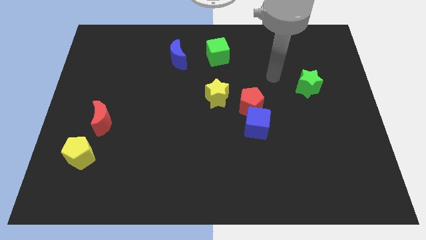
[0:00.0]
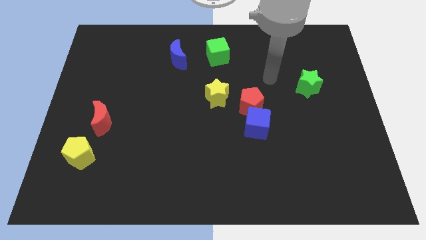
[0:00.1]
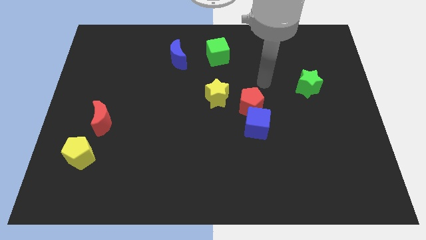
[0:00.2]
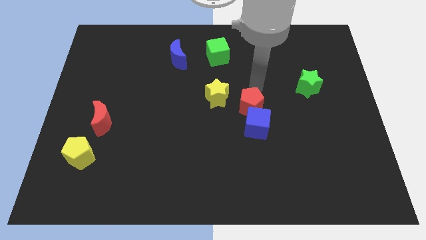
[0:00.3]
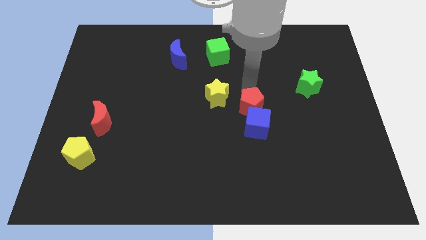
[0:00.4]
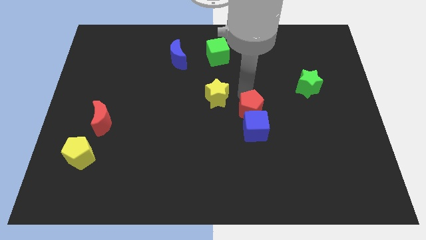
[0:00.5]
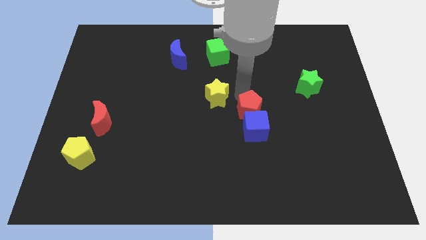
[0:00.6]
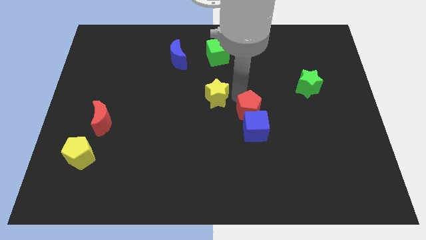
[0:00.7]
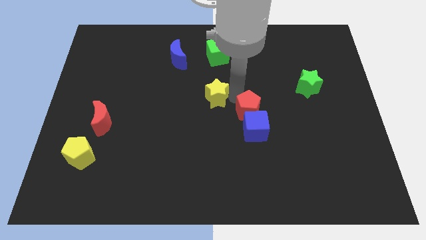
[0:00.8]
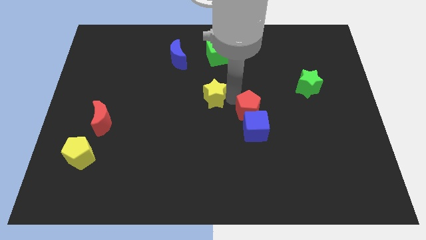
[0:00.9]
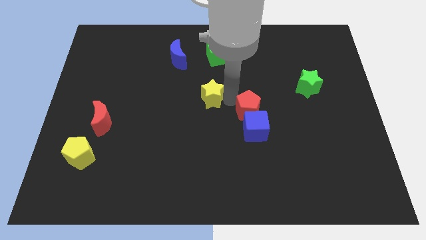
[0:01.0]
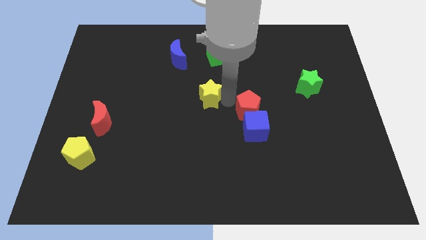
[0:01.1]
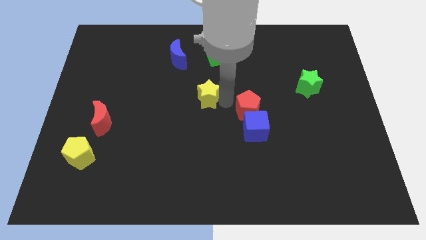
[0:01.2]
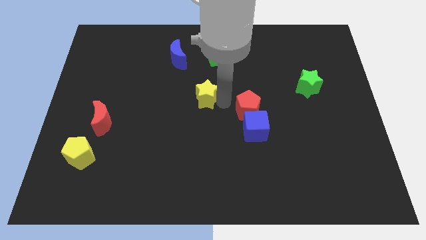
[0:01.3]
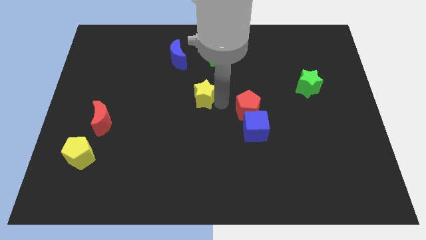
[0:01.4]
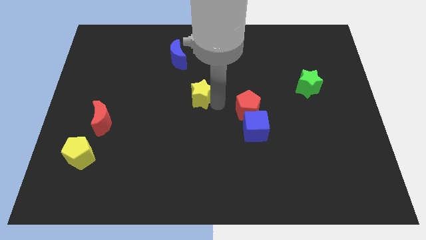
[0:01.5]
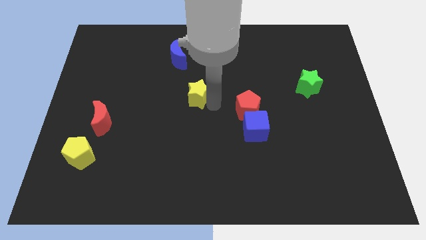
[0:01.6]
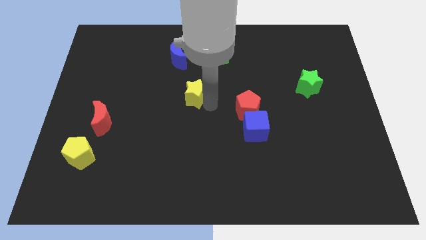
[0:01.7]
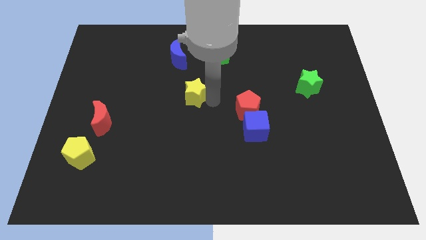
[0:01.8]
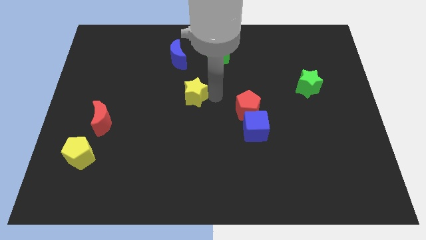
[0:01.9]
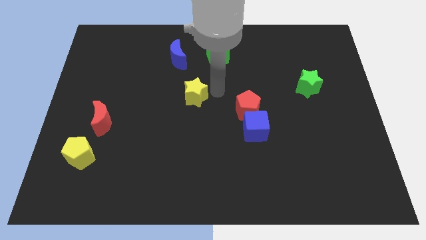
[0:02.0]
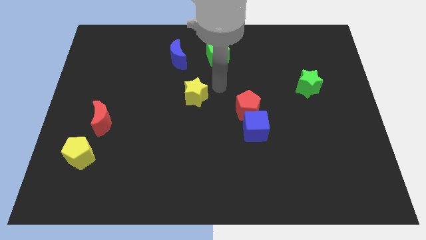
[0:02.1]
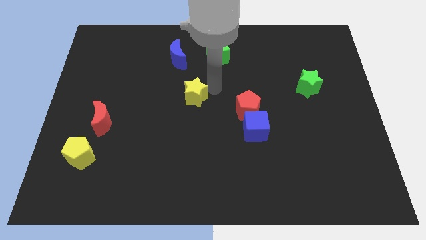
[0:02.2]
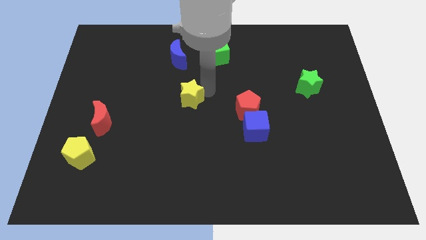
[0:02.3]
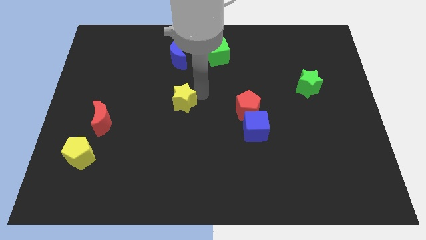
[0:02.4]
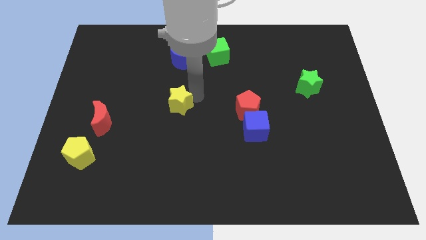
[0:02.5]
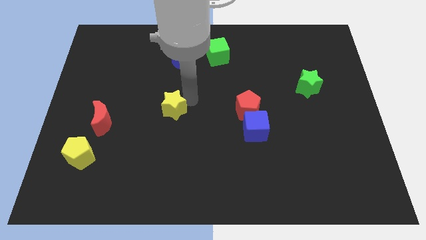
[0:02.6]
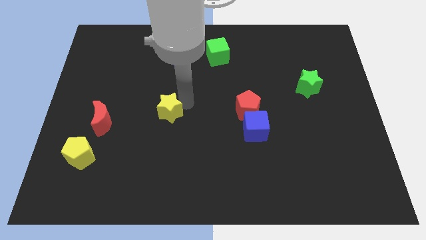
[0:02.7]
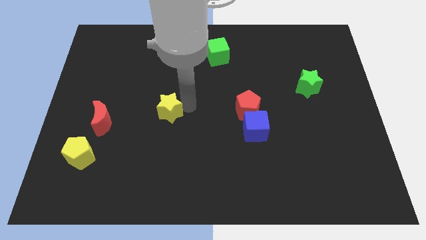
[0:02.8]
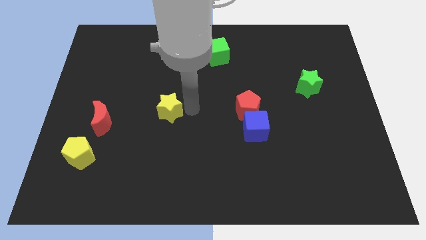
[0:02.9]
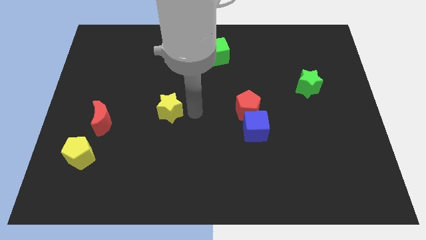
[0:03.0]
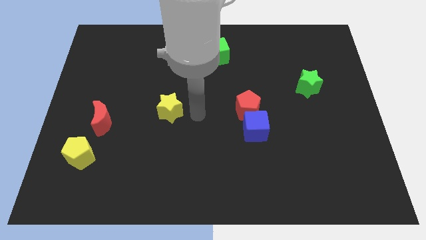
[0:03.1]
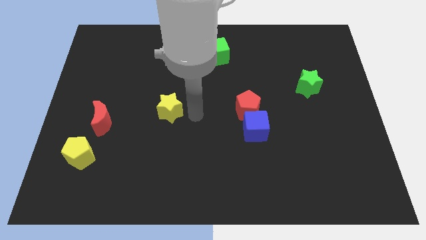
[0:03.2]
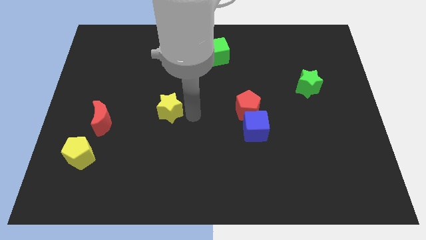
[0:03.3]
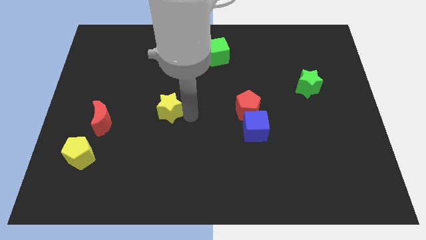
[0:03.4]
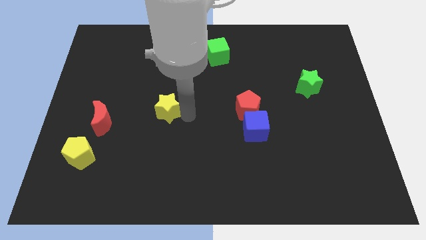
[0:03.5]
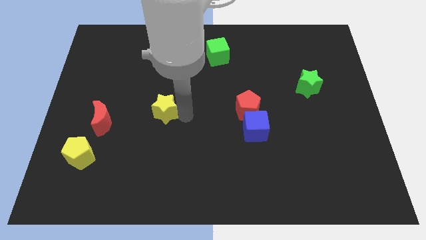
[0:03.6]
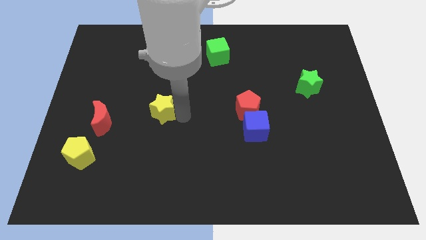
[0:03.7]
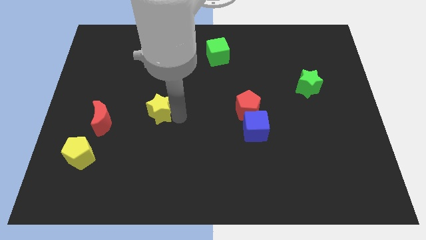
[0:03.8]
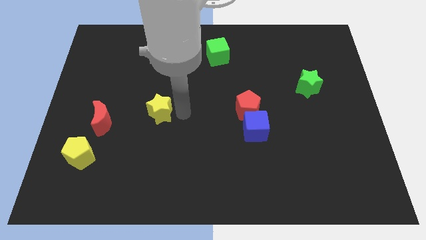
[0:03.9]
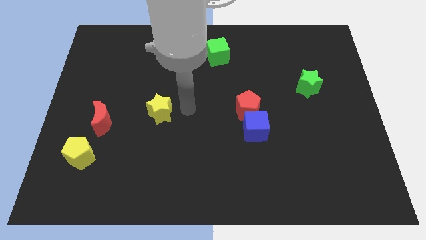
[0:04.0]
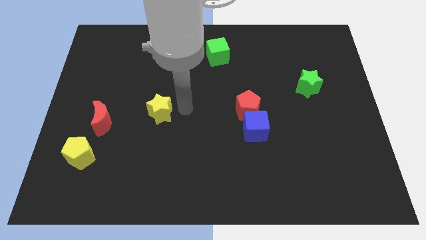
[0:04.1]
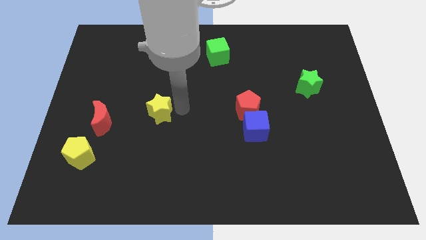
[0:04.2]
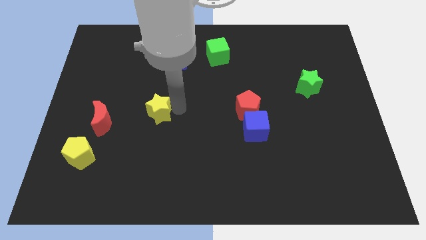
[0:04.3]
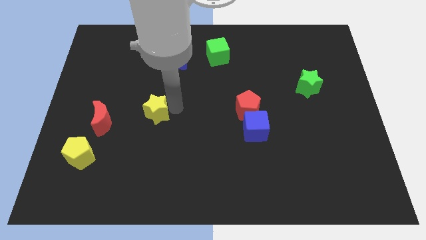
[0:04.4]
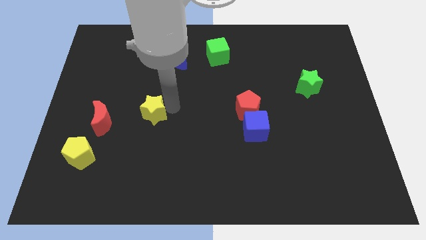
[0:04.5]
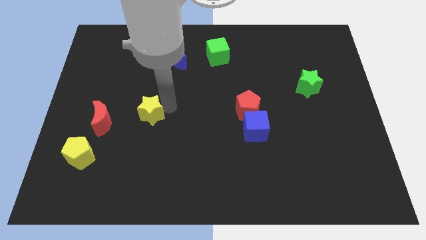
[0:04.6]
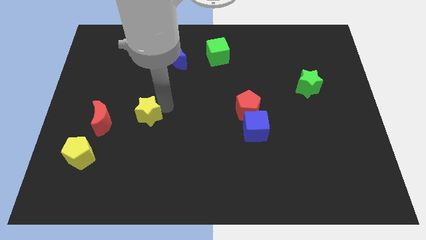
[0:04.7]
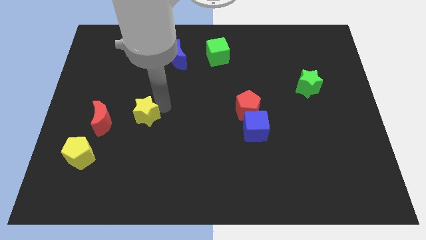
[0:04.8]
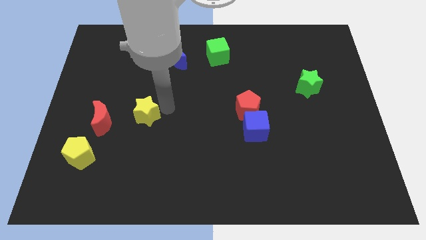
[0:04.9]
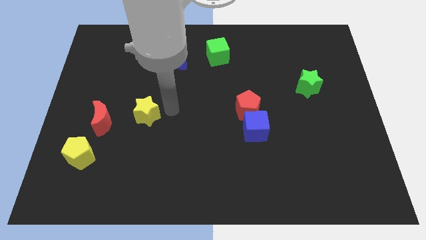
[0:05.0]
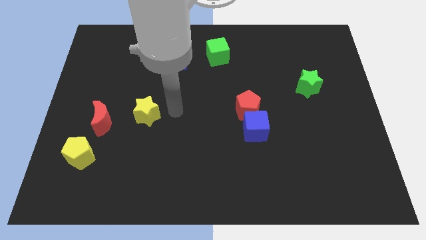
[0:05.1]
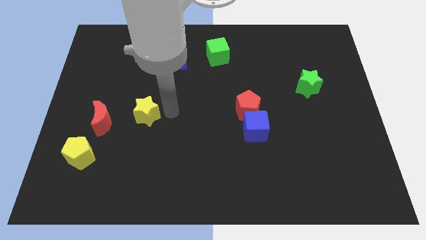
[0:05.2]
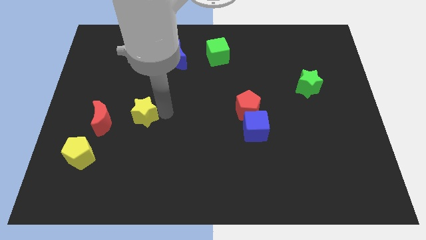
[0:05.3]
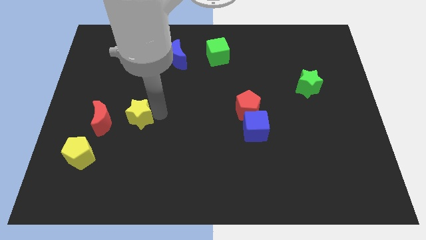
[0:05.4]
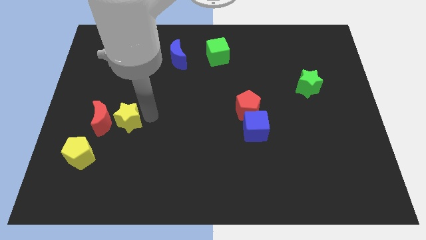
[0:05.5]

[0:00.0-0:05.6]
push the yellow star to the red moon

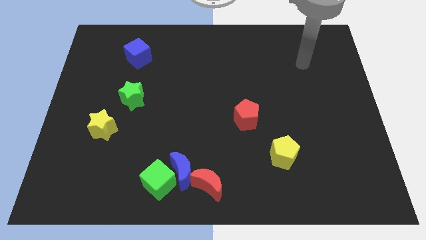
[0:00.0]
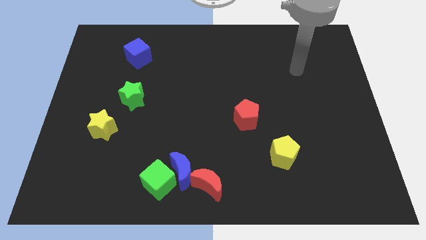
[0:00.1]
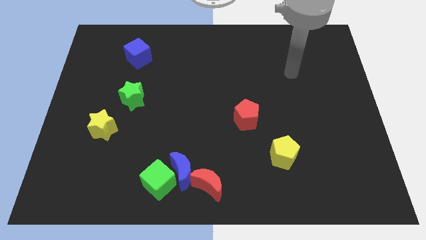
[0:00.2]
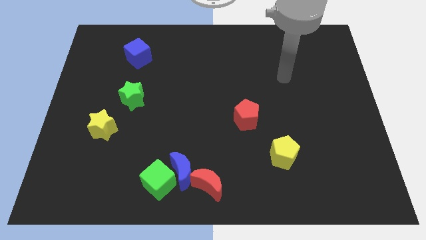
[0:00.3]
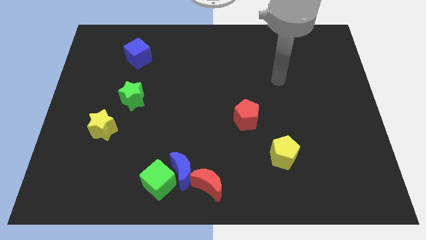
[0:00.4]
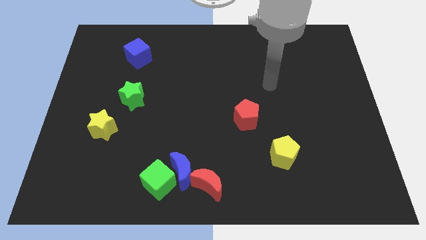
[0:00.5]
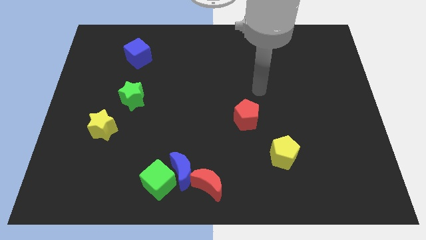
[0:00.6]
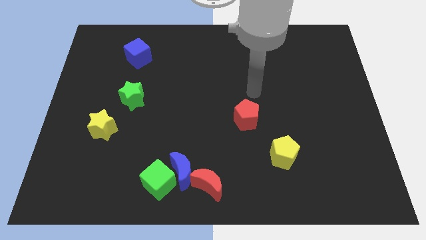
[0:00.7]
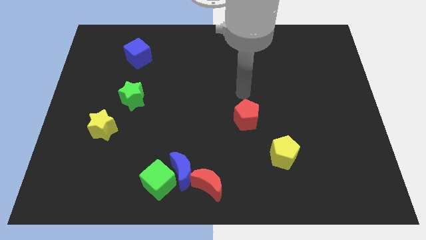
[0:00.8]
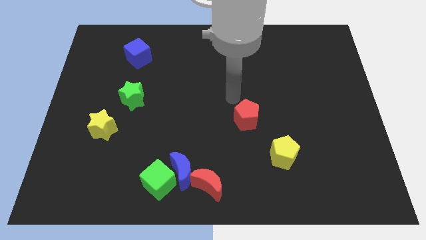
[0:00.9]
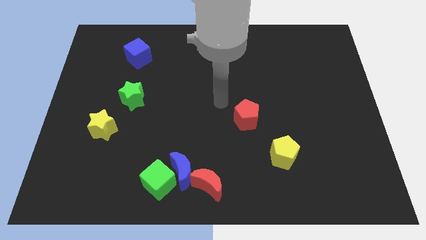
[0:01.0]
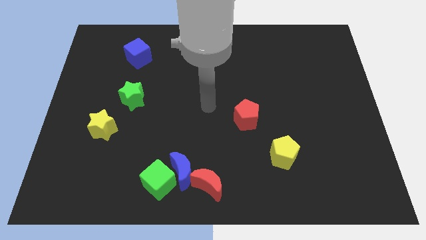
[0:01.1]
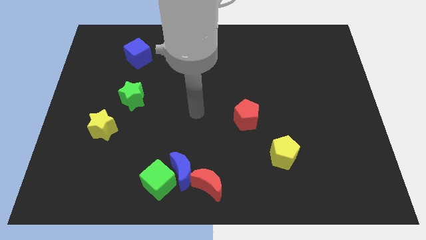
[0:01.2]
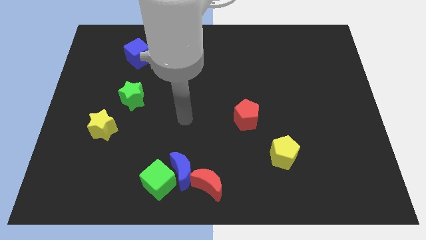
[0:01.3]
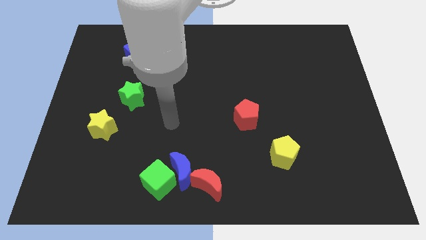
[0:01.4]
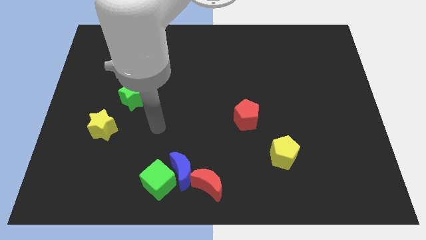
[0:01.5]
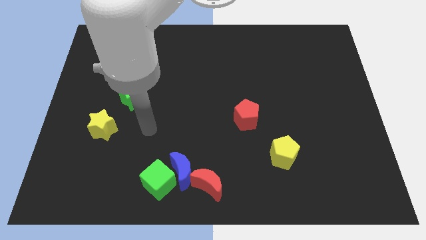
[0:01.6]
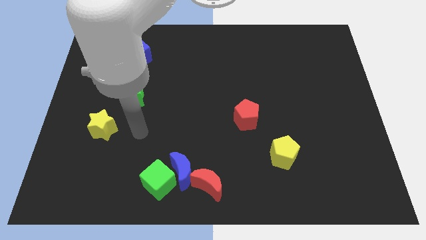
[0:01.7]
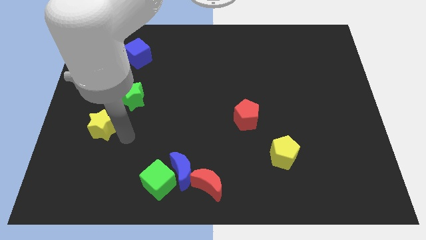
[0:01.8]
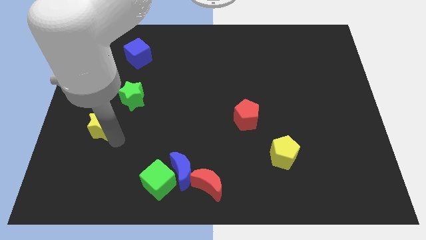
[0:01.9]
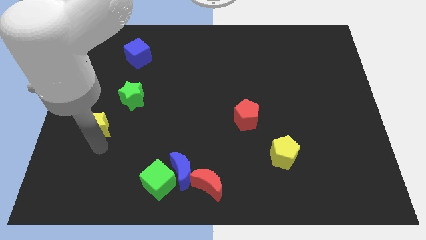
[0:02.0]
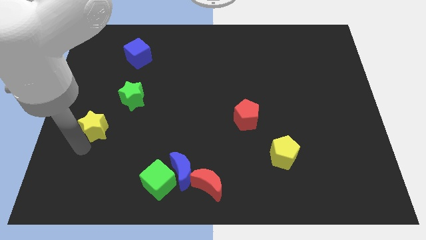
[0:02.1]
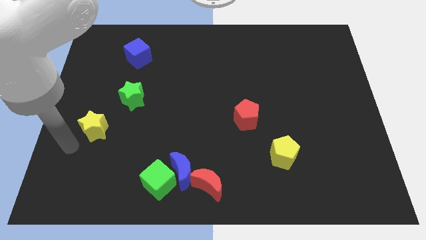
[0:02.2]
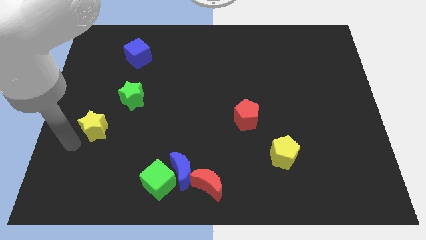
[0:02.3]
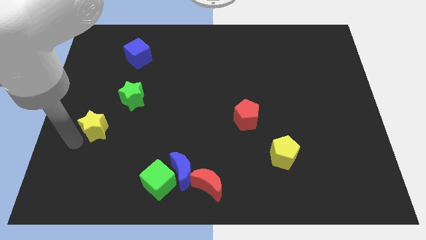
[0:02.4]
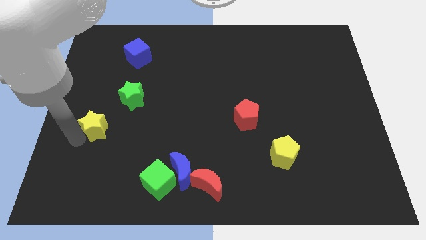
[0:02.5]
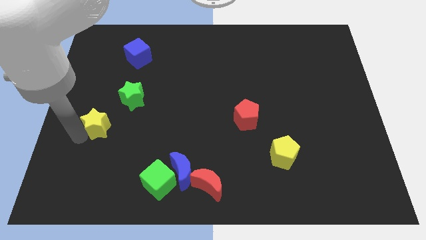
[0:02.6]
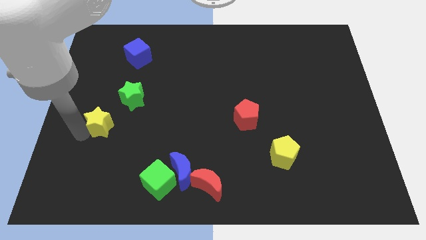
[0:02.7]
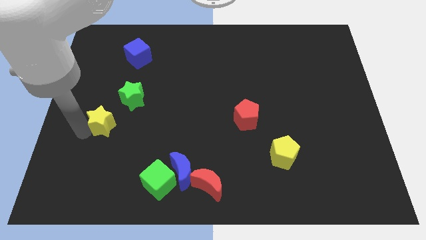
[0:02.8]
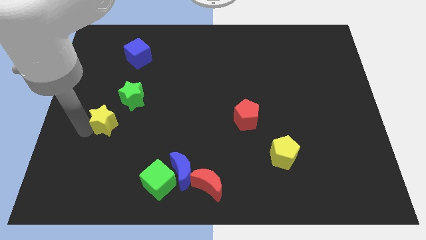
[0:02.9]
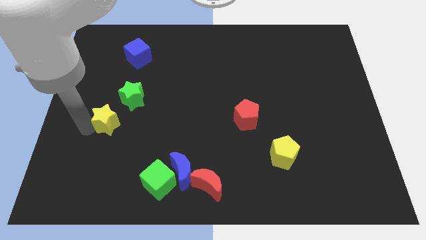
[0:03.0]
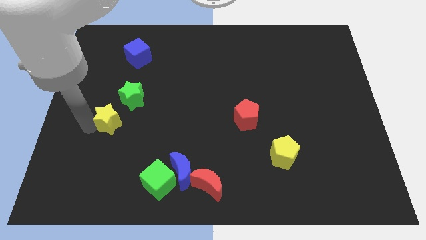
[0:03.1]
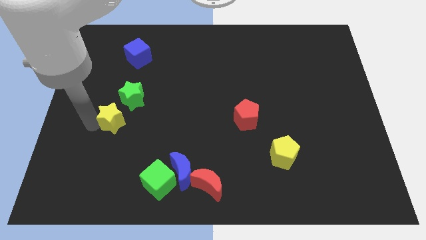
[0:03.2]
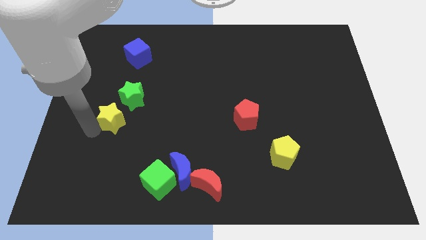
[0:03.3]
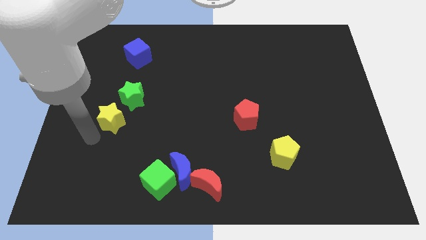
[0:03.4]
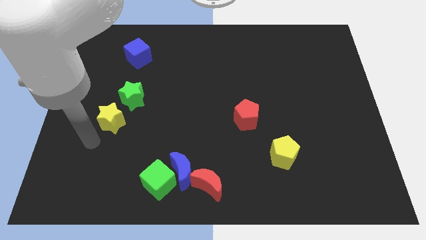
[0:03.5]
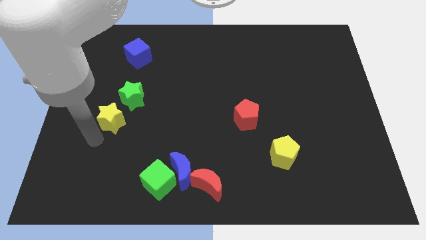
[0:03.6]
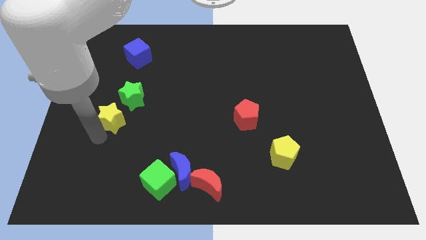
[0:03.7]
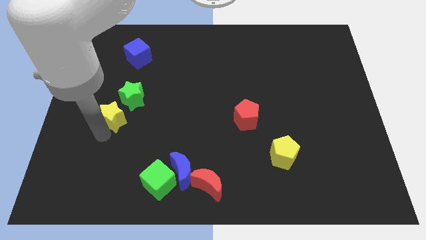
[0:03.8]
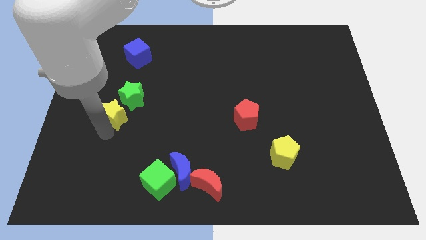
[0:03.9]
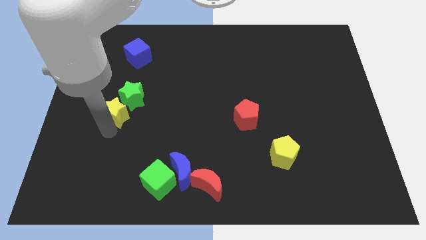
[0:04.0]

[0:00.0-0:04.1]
push the yellow star next to the green star
